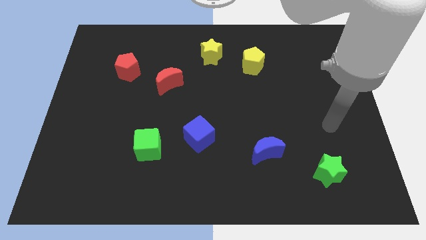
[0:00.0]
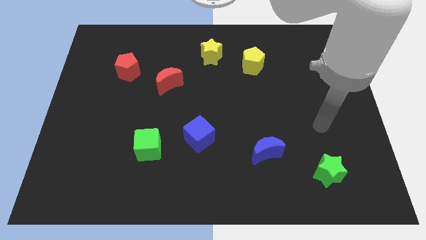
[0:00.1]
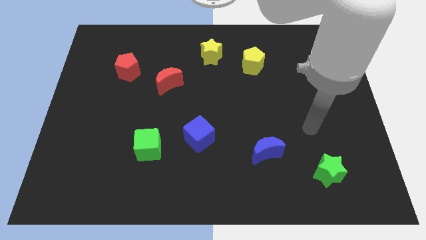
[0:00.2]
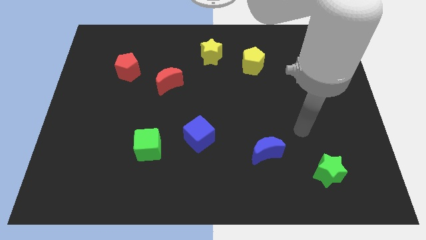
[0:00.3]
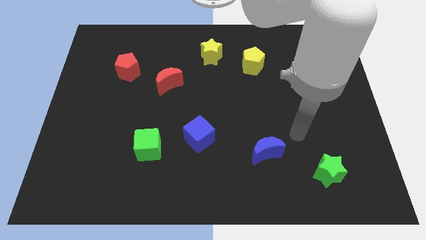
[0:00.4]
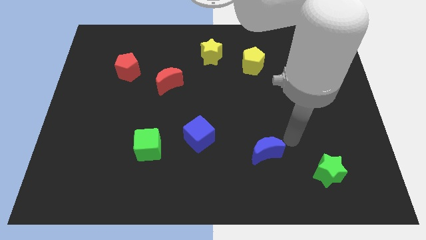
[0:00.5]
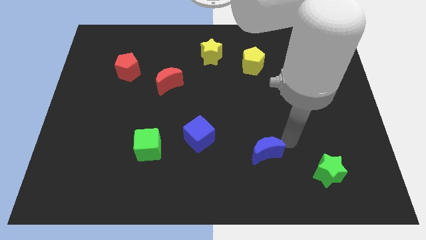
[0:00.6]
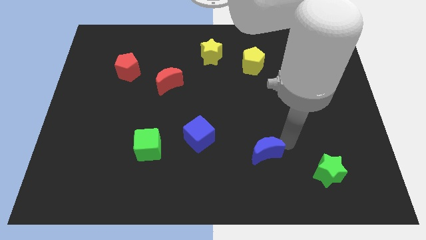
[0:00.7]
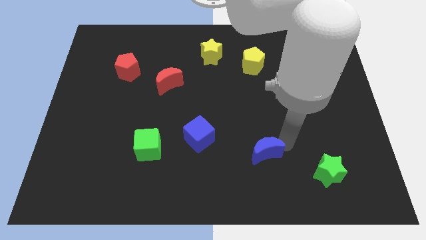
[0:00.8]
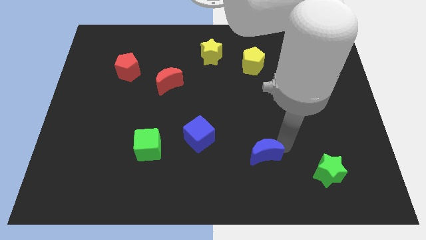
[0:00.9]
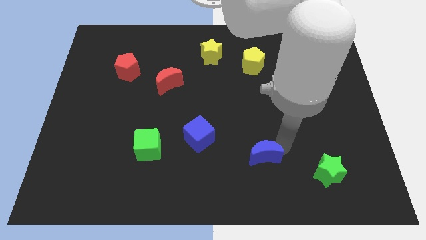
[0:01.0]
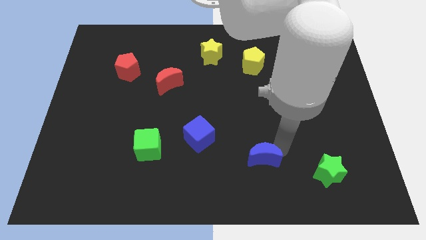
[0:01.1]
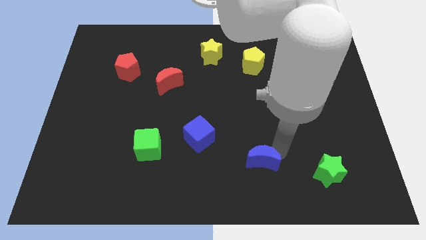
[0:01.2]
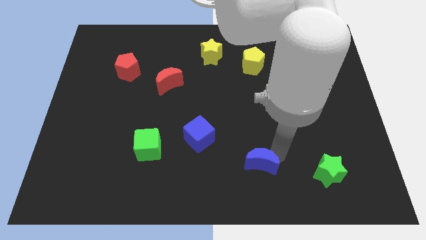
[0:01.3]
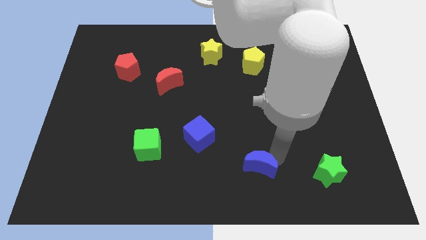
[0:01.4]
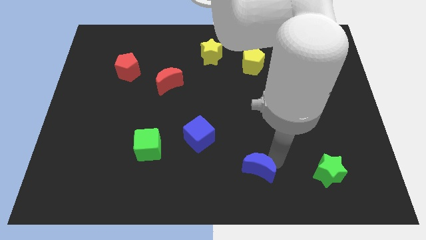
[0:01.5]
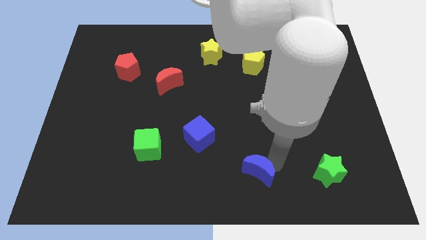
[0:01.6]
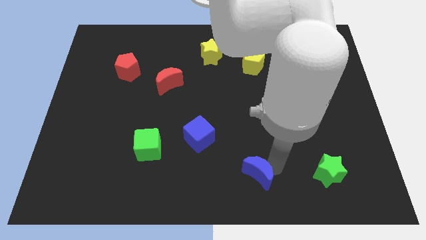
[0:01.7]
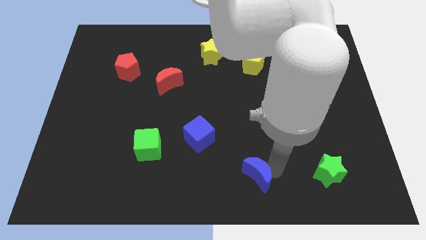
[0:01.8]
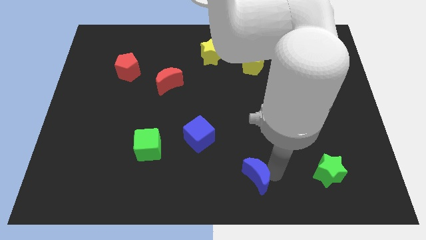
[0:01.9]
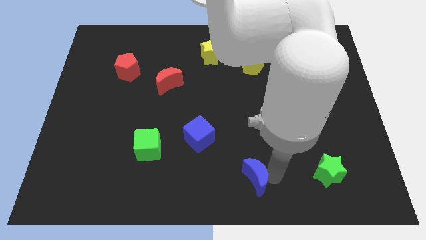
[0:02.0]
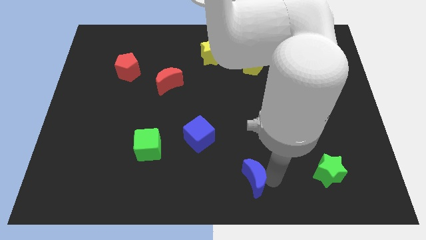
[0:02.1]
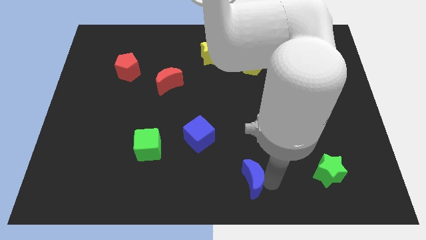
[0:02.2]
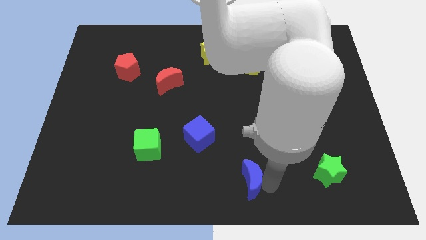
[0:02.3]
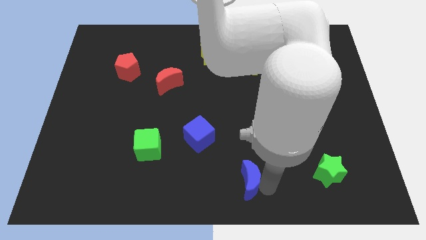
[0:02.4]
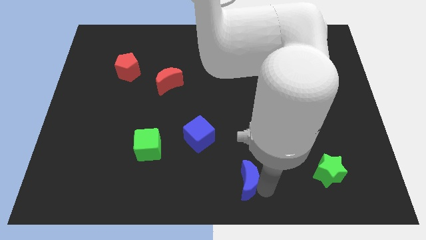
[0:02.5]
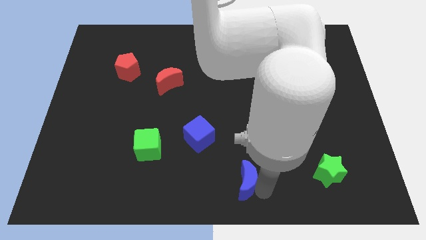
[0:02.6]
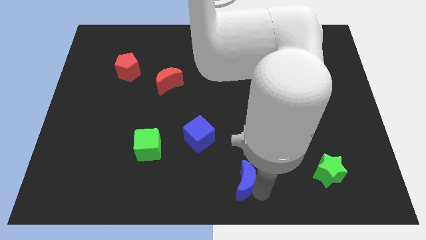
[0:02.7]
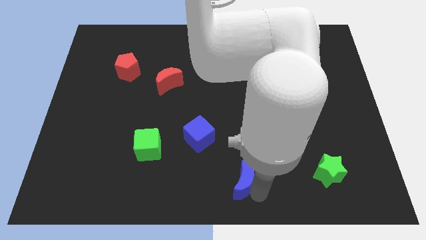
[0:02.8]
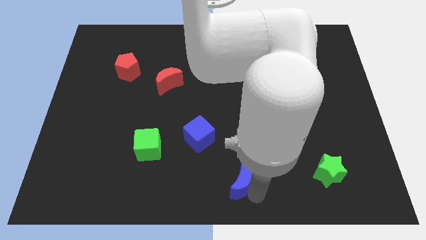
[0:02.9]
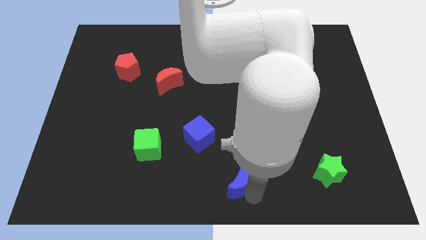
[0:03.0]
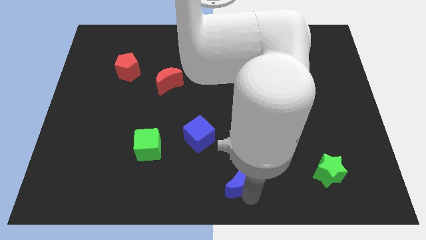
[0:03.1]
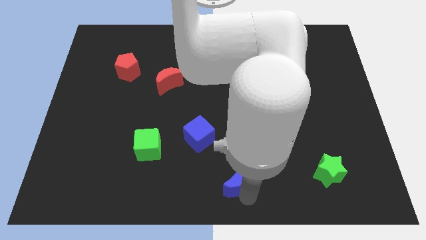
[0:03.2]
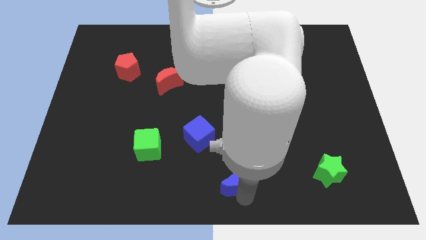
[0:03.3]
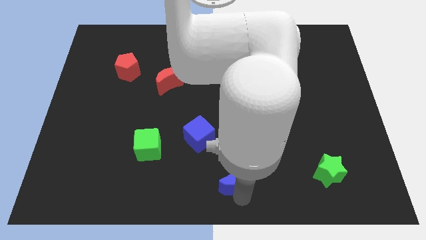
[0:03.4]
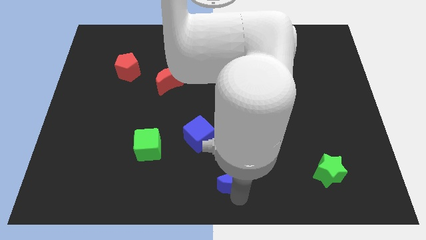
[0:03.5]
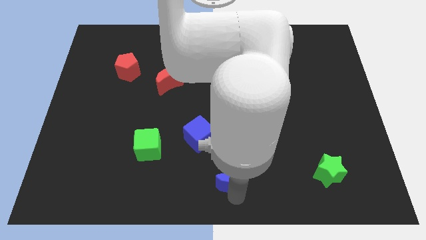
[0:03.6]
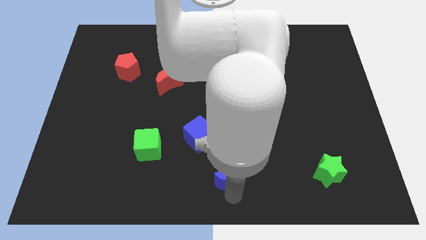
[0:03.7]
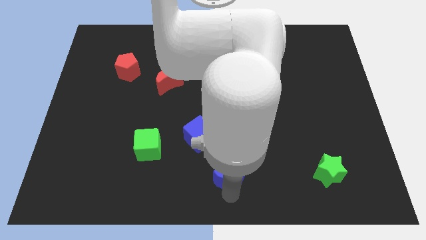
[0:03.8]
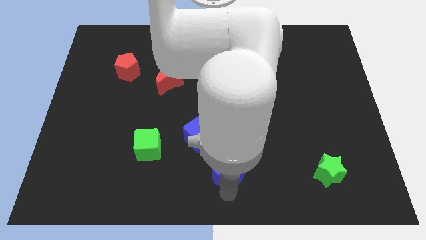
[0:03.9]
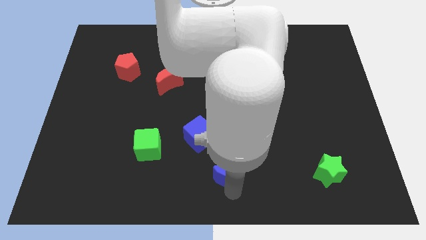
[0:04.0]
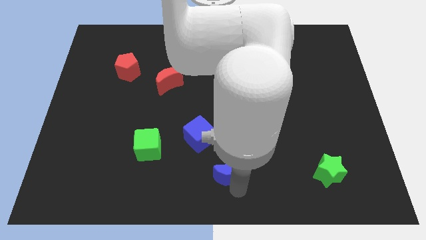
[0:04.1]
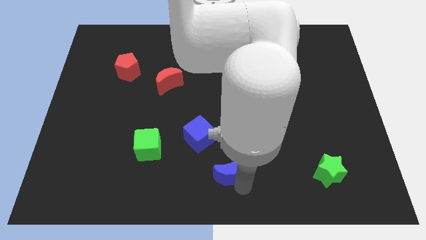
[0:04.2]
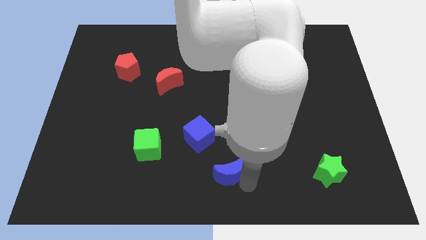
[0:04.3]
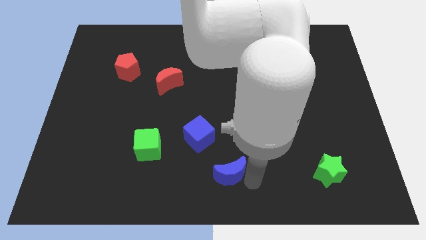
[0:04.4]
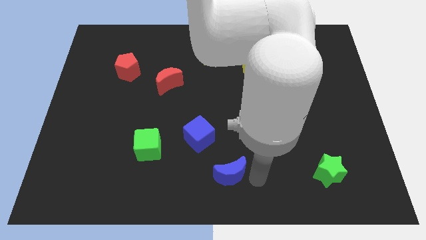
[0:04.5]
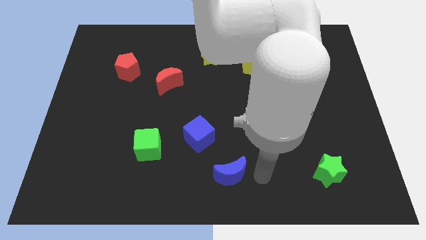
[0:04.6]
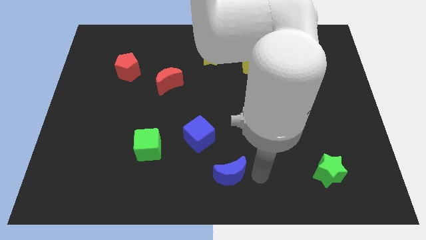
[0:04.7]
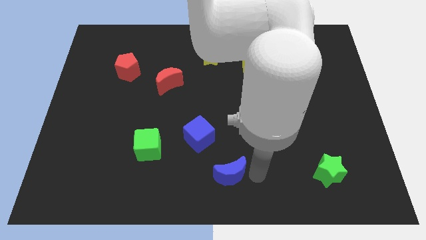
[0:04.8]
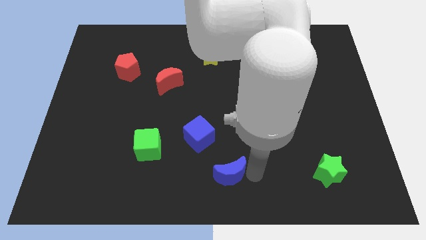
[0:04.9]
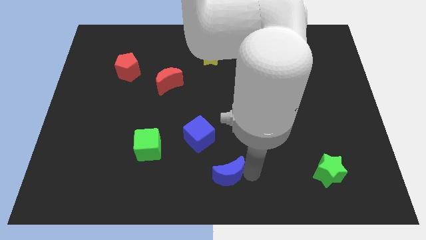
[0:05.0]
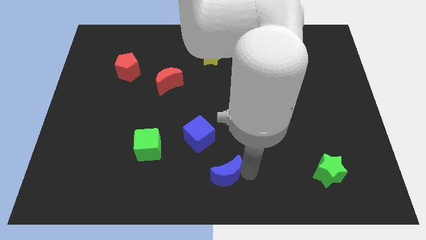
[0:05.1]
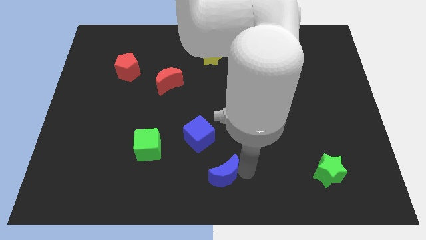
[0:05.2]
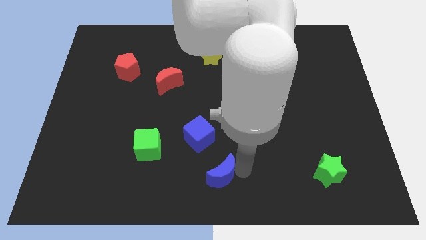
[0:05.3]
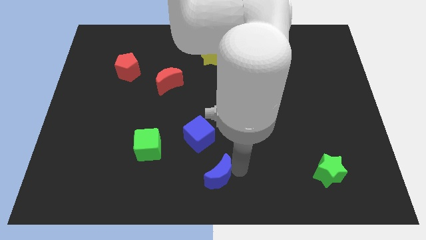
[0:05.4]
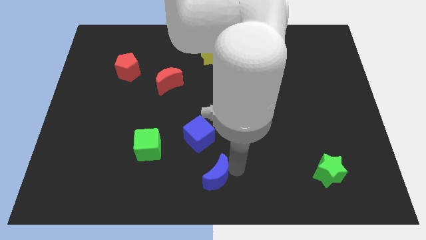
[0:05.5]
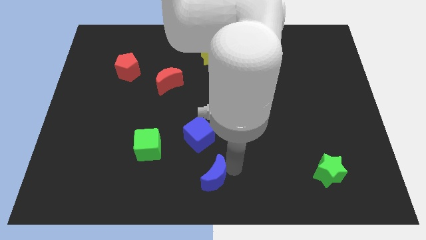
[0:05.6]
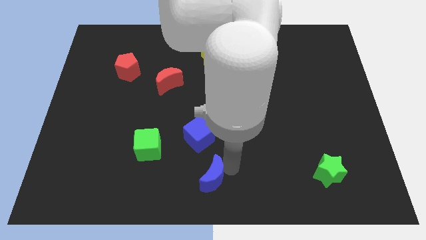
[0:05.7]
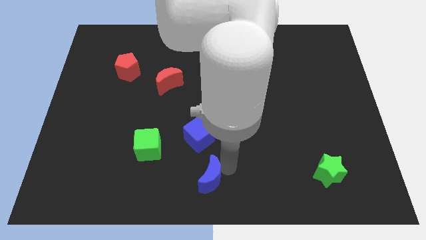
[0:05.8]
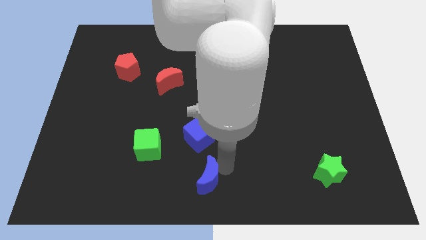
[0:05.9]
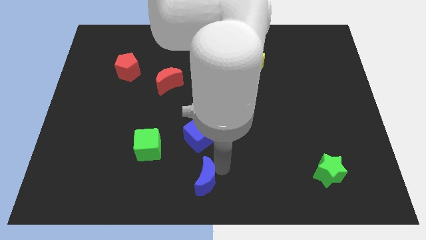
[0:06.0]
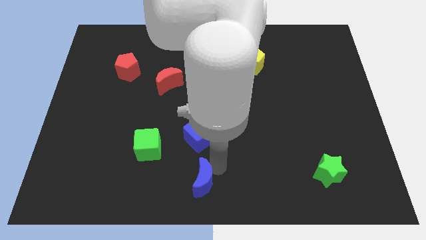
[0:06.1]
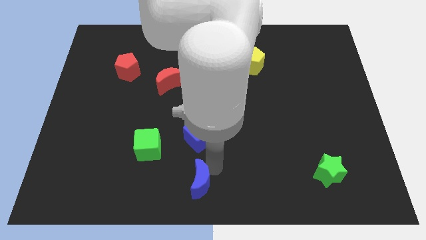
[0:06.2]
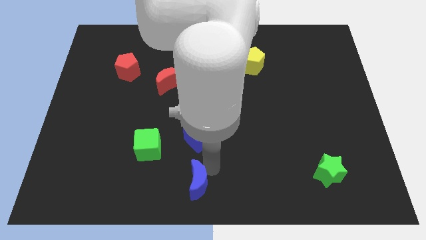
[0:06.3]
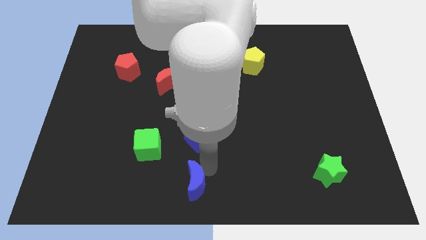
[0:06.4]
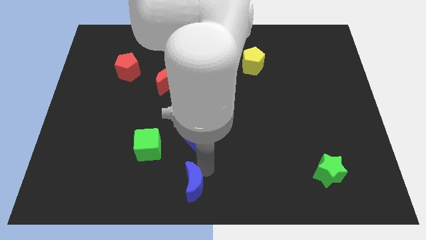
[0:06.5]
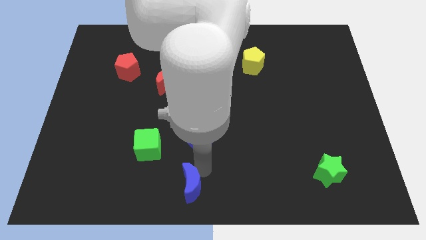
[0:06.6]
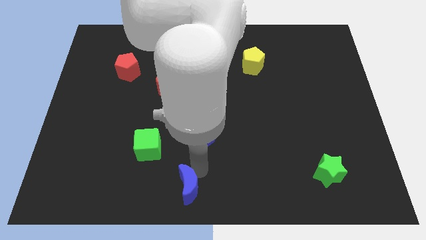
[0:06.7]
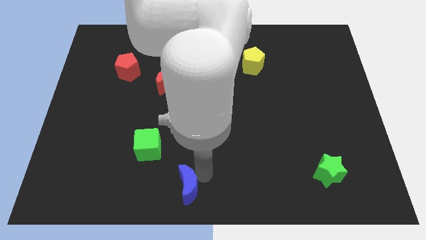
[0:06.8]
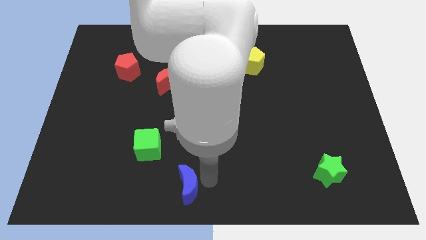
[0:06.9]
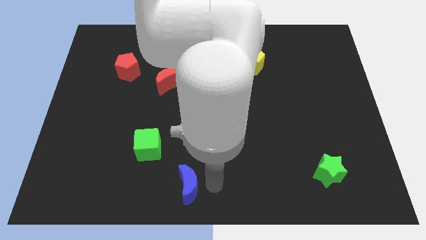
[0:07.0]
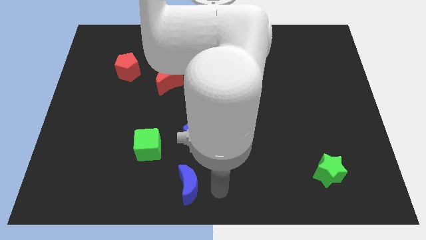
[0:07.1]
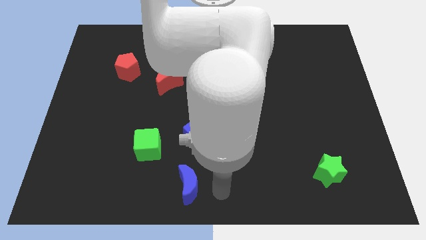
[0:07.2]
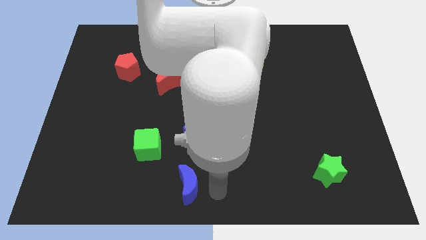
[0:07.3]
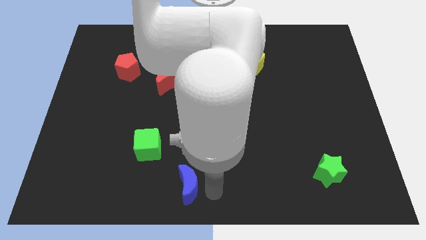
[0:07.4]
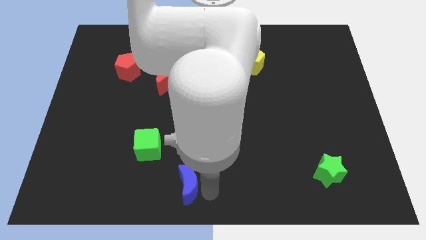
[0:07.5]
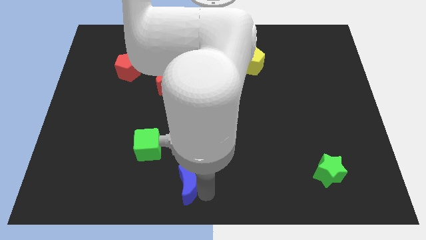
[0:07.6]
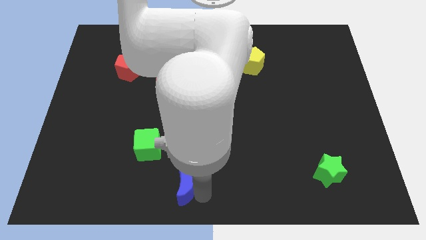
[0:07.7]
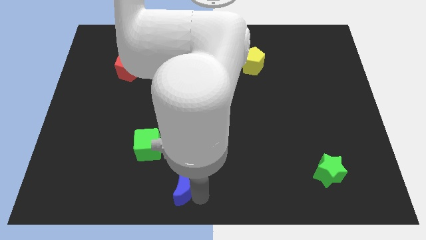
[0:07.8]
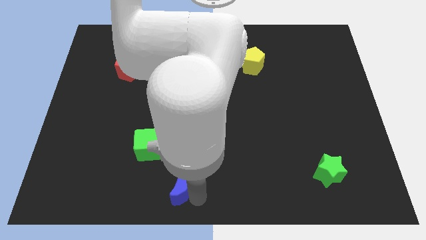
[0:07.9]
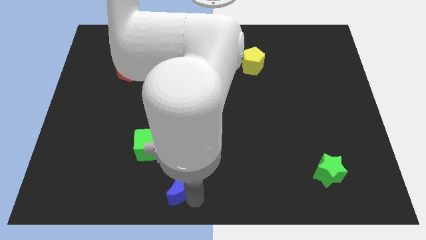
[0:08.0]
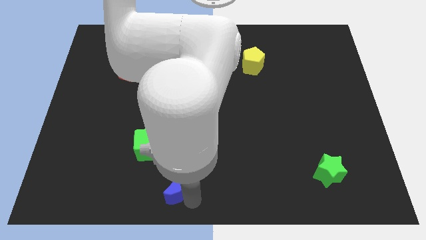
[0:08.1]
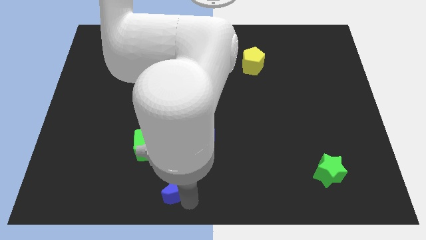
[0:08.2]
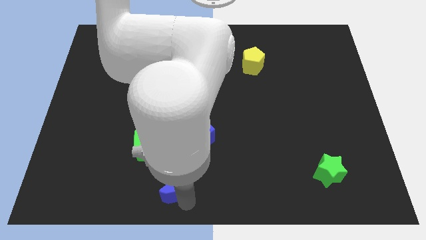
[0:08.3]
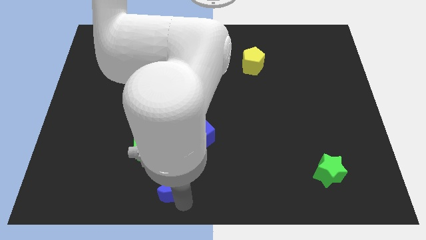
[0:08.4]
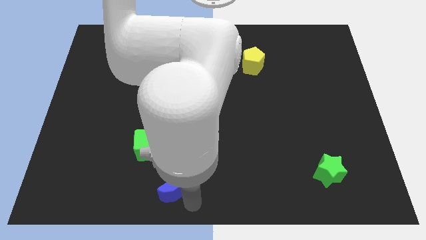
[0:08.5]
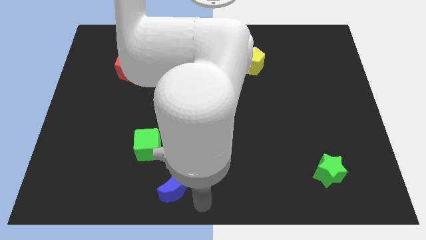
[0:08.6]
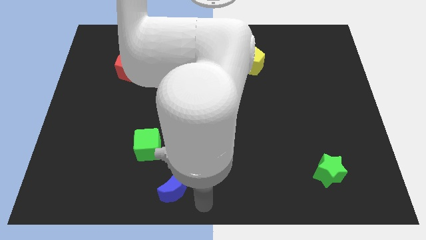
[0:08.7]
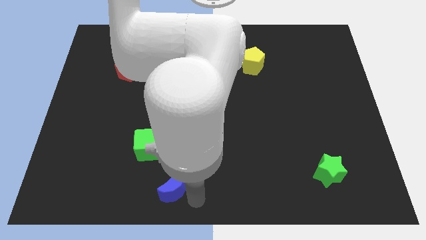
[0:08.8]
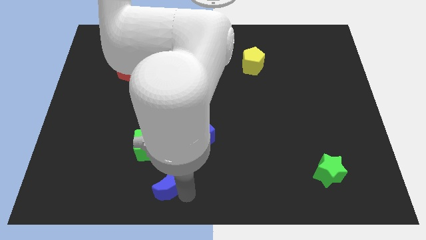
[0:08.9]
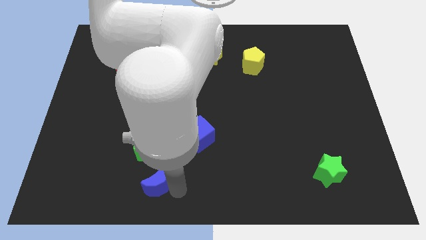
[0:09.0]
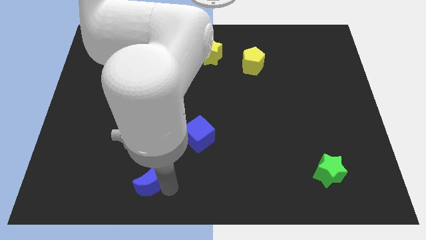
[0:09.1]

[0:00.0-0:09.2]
push the blue moon left
